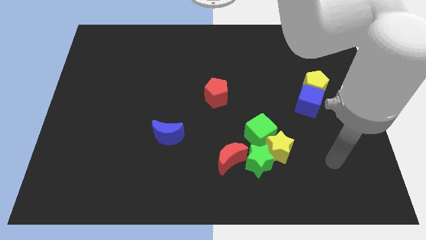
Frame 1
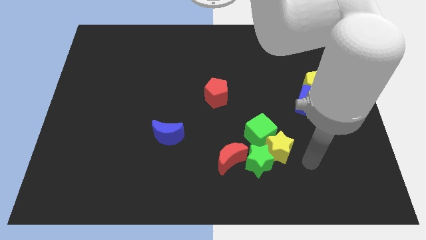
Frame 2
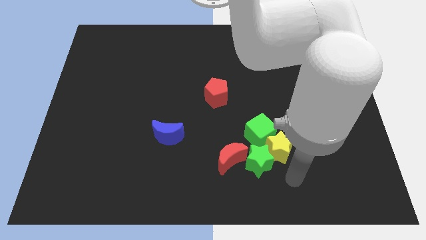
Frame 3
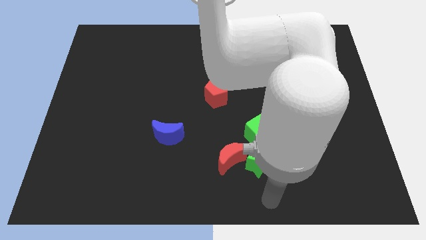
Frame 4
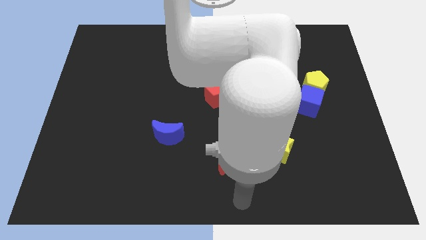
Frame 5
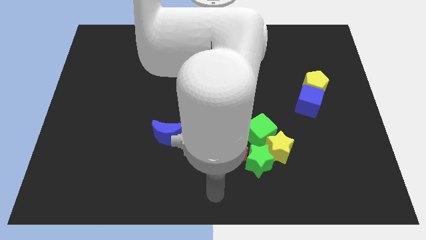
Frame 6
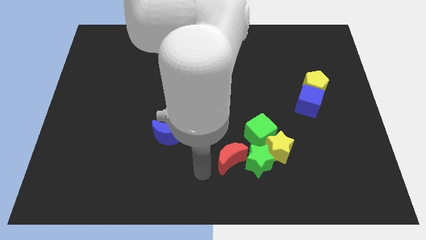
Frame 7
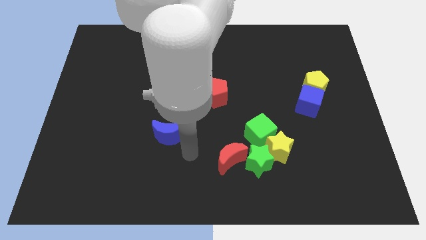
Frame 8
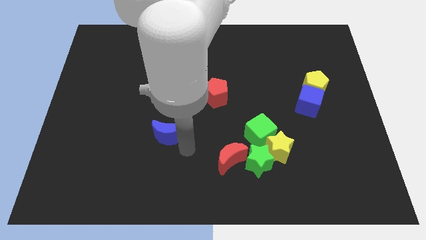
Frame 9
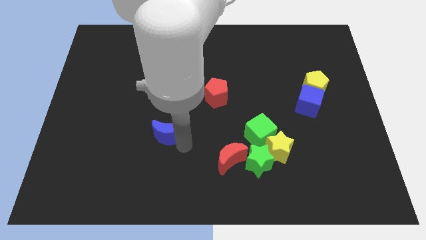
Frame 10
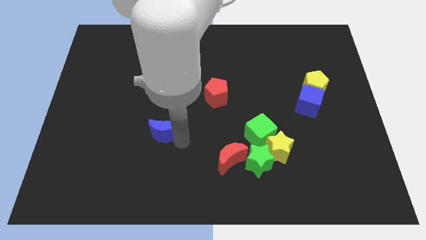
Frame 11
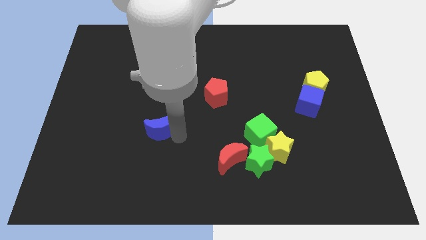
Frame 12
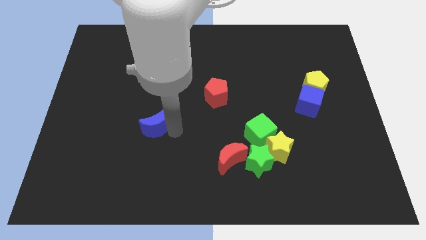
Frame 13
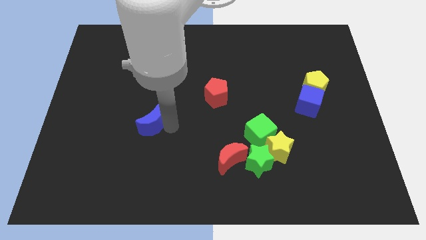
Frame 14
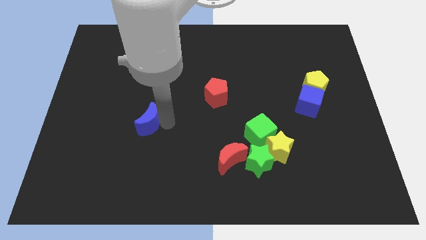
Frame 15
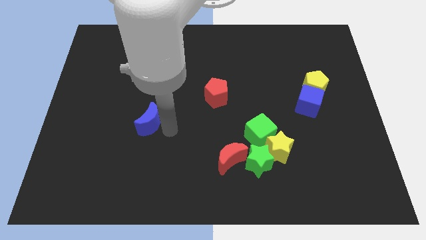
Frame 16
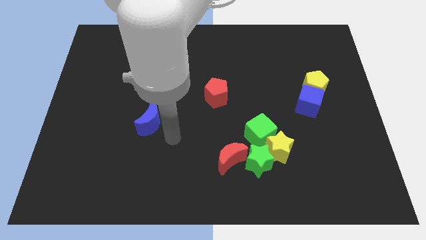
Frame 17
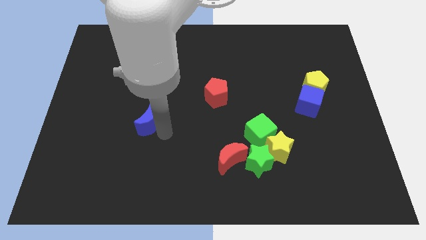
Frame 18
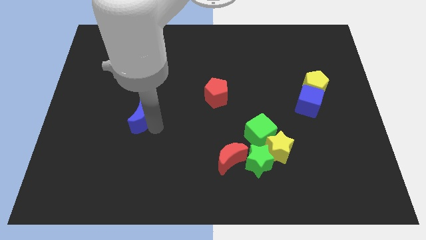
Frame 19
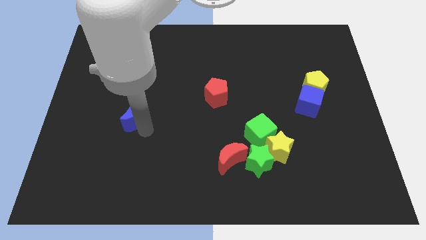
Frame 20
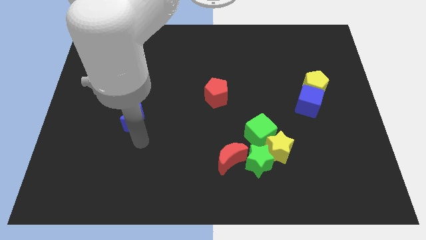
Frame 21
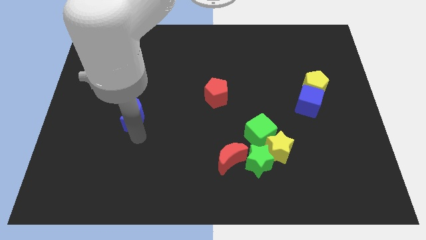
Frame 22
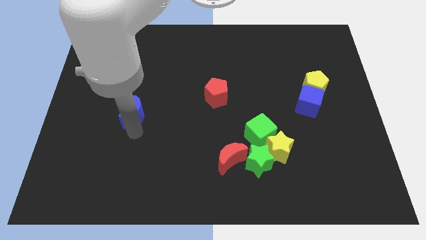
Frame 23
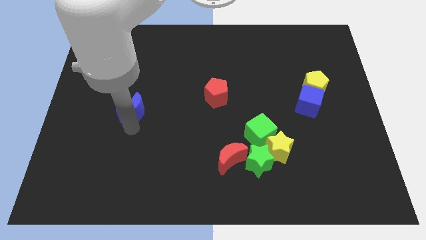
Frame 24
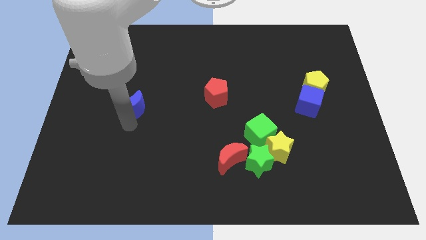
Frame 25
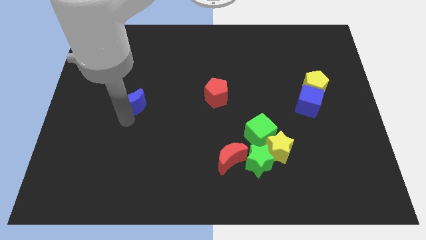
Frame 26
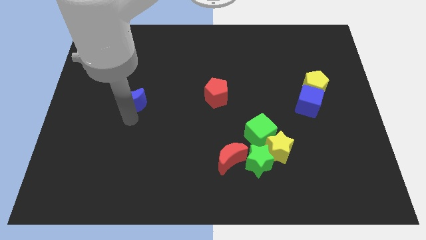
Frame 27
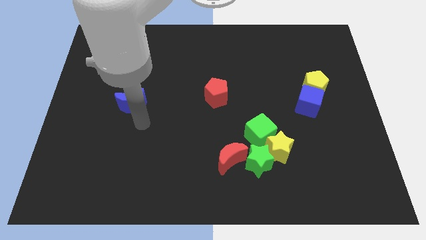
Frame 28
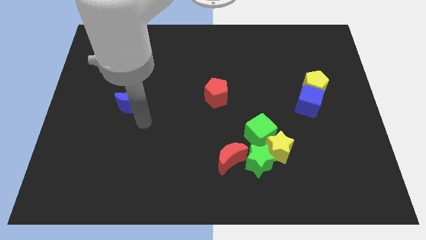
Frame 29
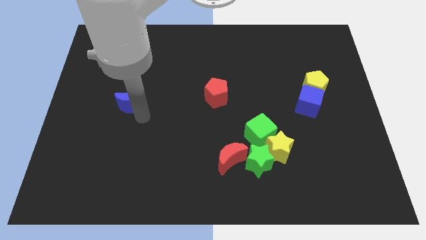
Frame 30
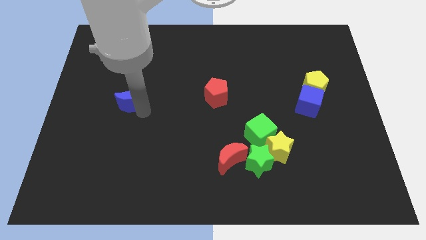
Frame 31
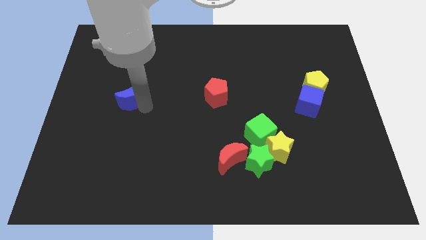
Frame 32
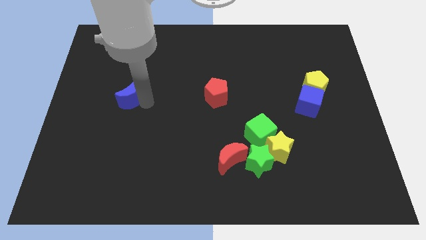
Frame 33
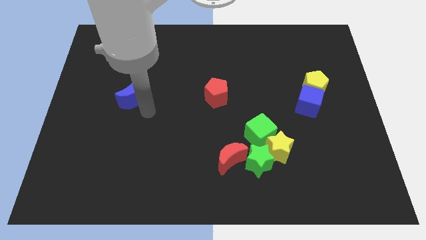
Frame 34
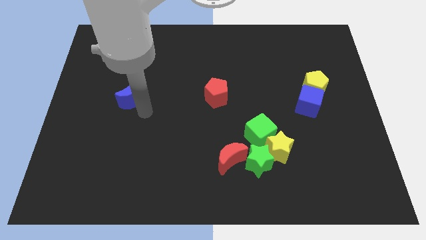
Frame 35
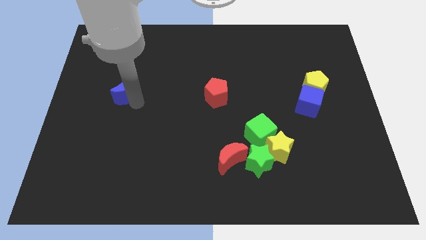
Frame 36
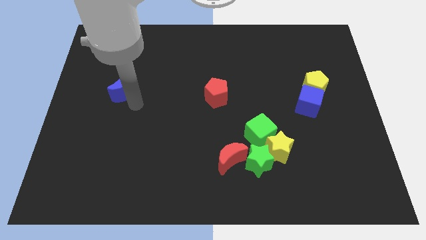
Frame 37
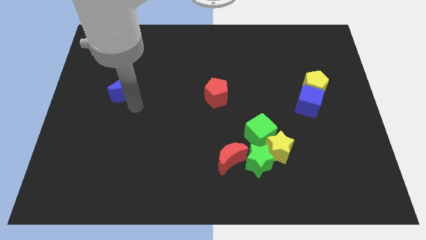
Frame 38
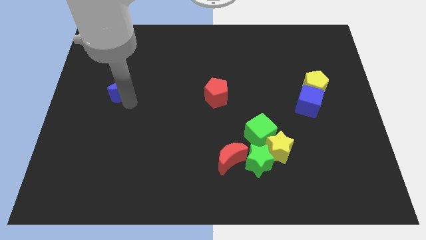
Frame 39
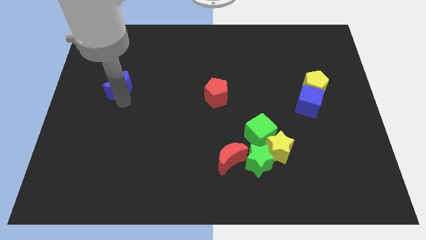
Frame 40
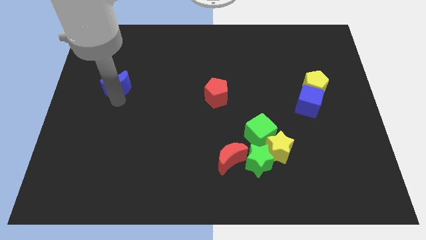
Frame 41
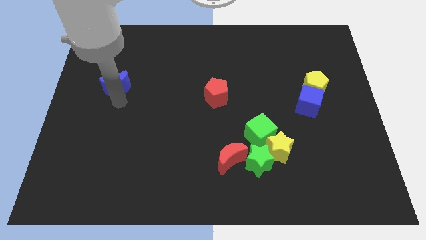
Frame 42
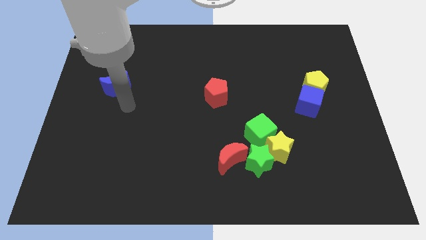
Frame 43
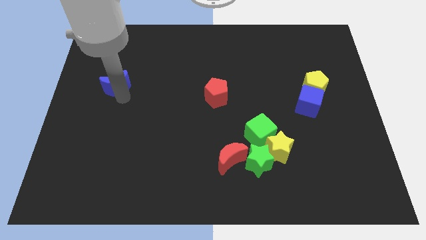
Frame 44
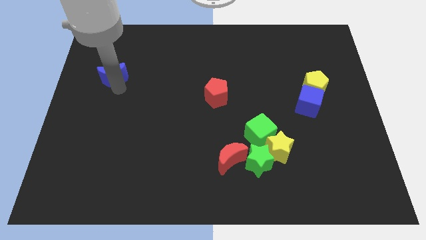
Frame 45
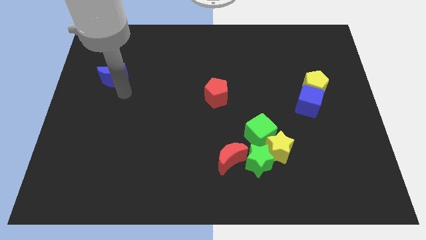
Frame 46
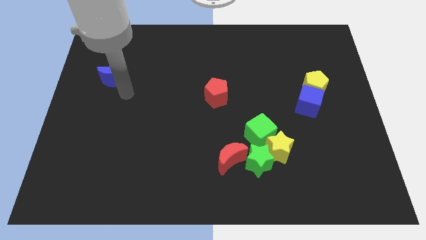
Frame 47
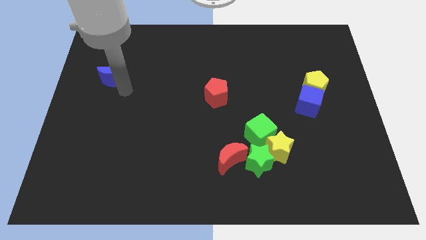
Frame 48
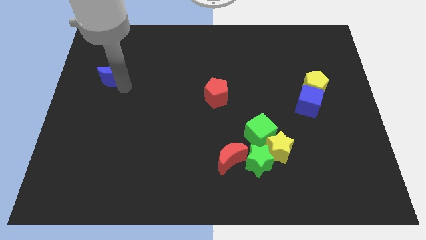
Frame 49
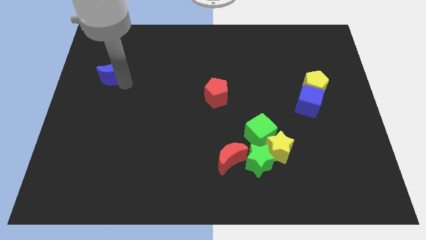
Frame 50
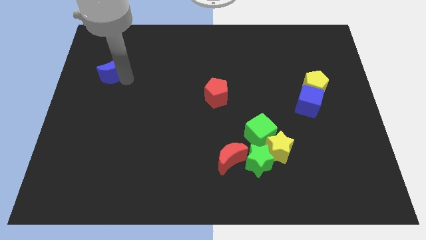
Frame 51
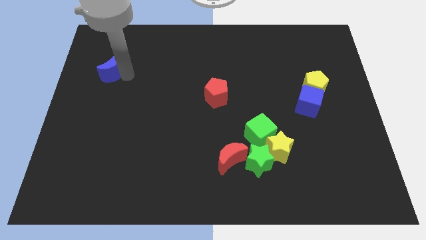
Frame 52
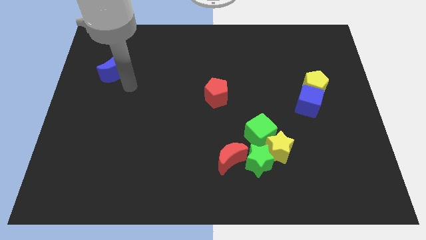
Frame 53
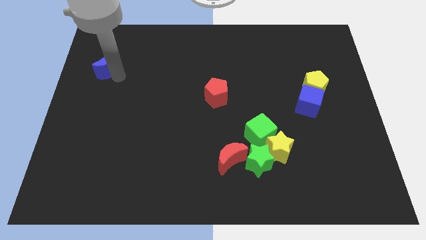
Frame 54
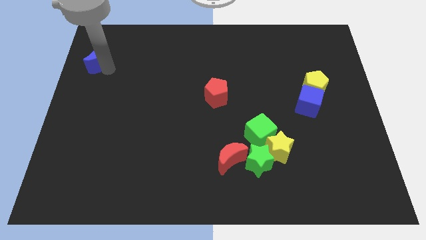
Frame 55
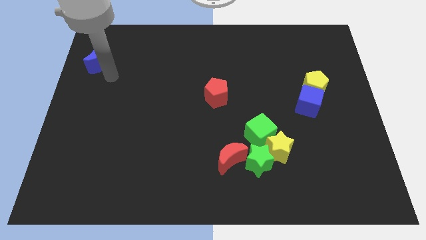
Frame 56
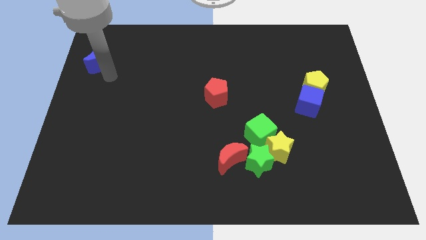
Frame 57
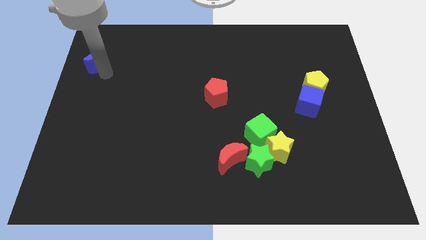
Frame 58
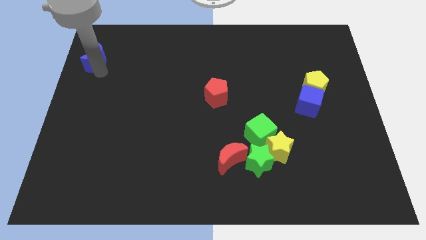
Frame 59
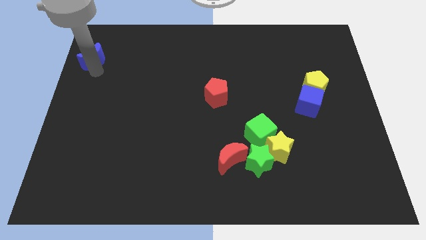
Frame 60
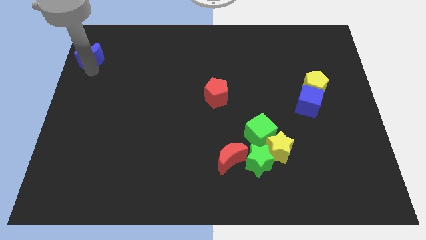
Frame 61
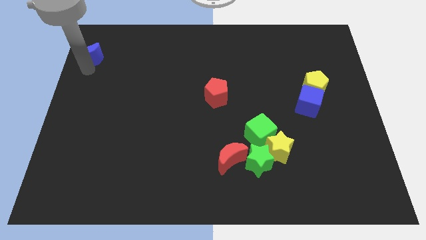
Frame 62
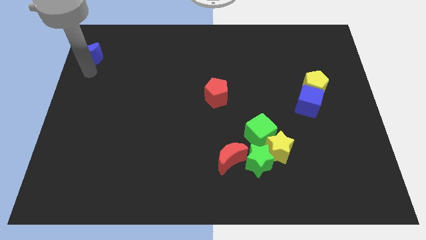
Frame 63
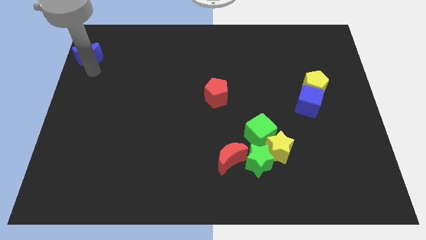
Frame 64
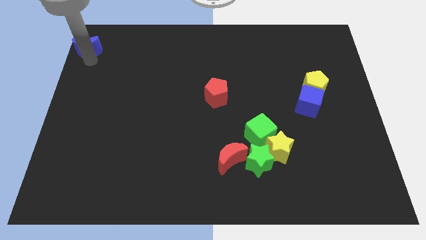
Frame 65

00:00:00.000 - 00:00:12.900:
move the blue moon to the top left of the board

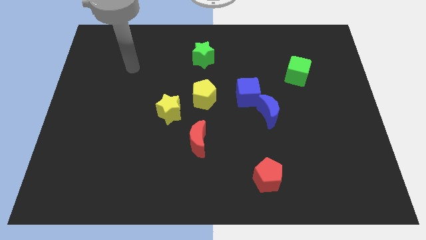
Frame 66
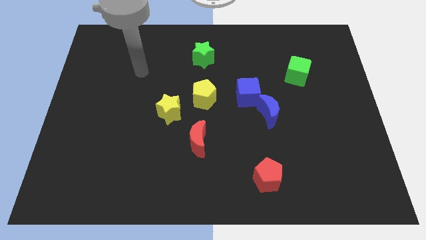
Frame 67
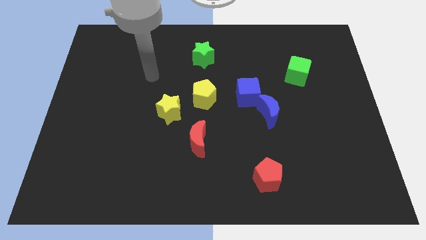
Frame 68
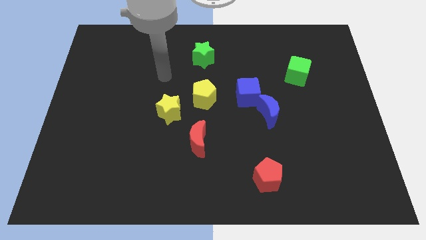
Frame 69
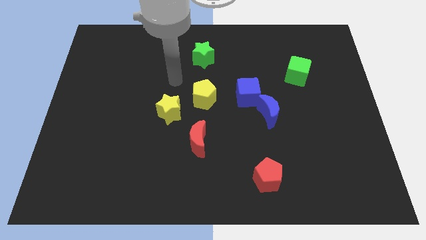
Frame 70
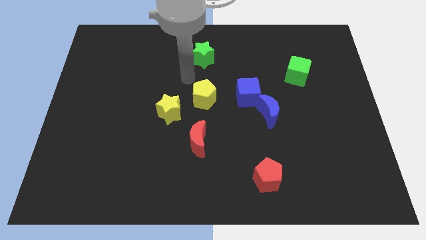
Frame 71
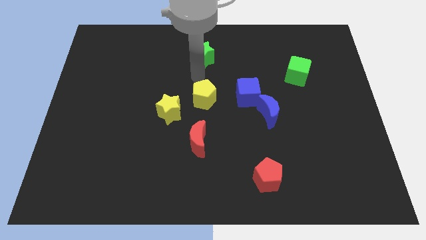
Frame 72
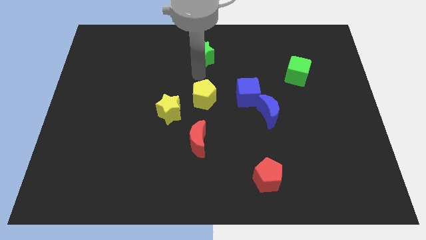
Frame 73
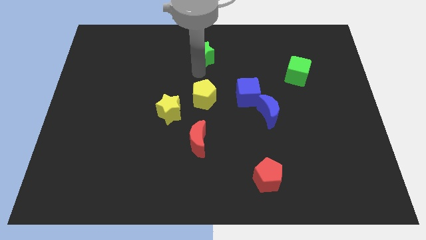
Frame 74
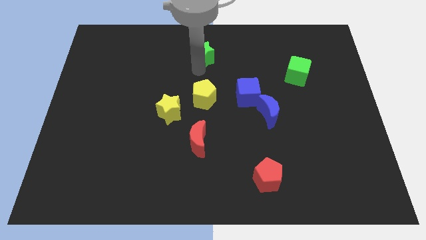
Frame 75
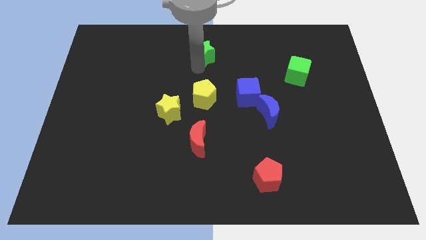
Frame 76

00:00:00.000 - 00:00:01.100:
push the green star to the towards your base

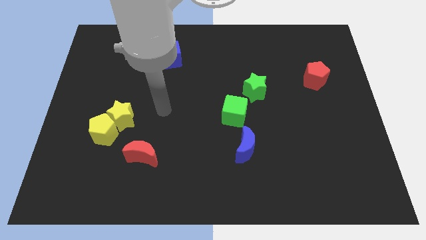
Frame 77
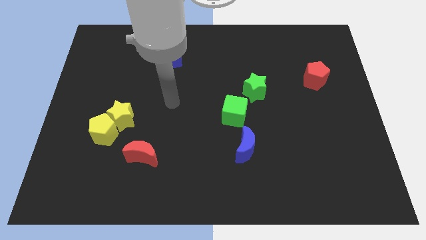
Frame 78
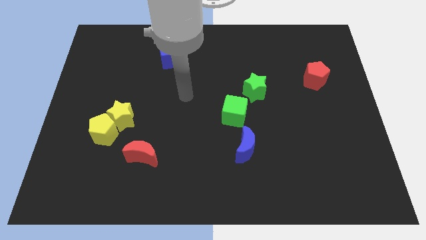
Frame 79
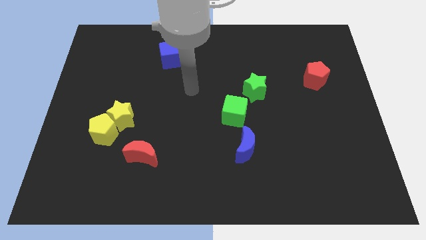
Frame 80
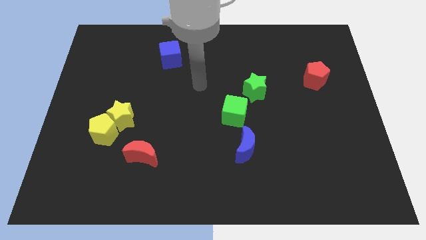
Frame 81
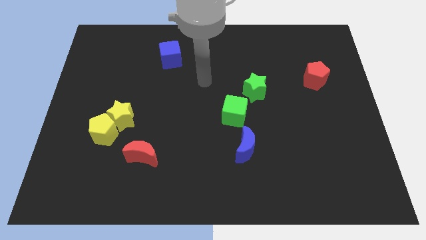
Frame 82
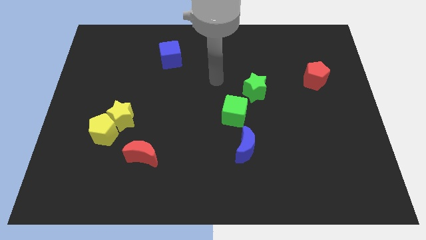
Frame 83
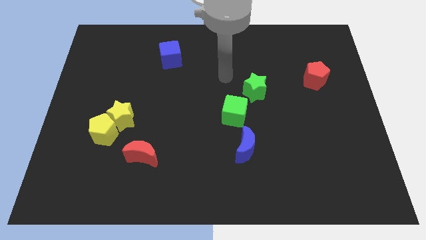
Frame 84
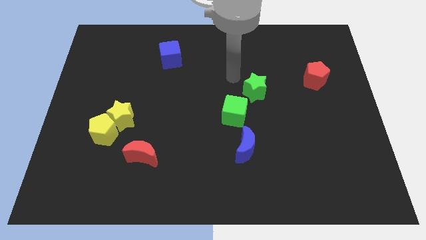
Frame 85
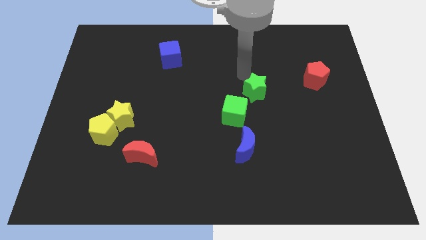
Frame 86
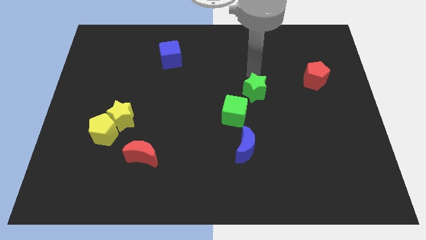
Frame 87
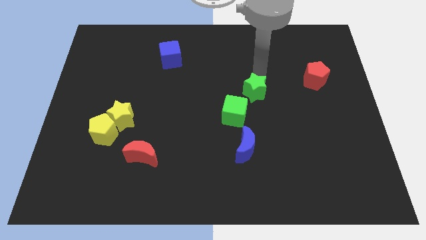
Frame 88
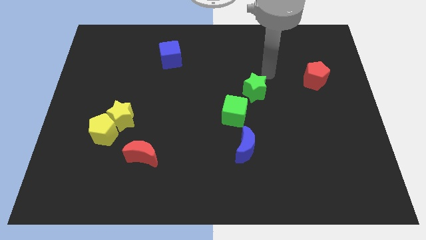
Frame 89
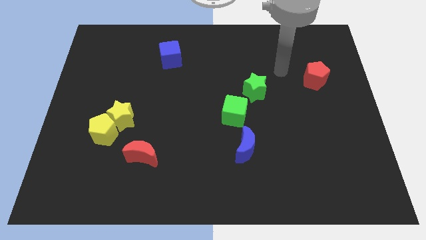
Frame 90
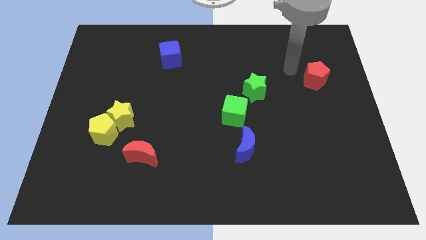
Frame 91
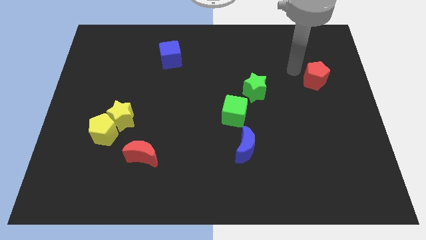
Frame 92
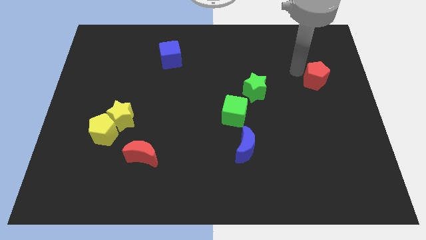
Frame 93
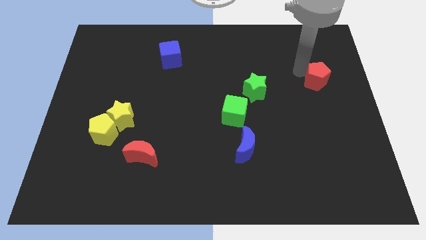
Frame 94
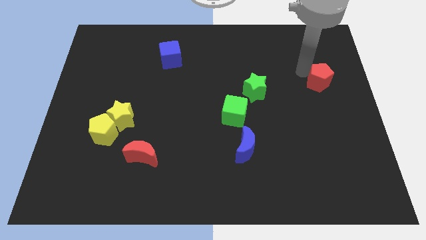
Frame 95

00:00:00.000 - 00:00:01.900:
push the red pentagon to the right side
